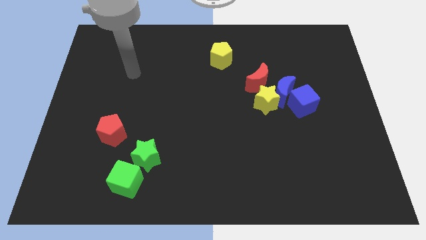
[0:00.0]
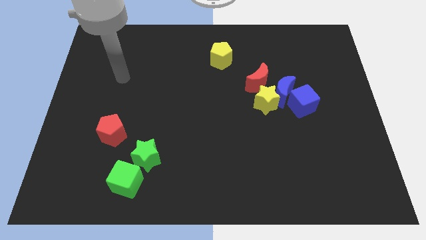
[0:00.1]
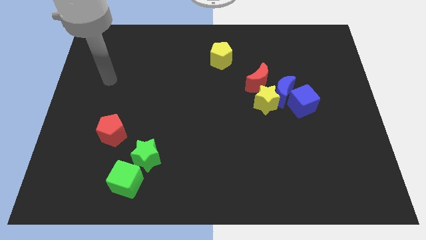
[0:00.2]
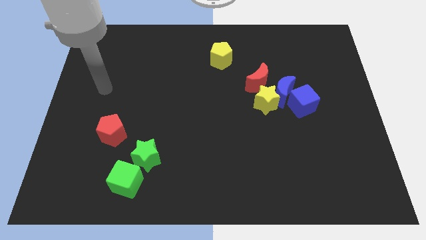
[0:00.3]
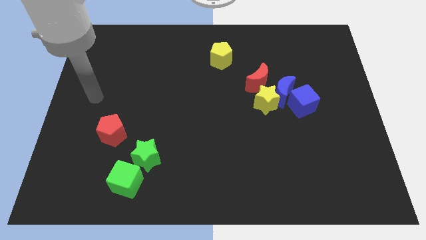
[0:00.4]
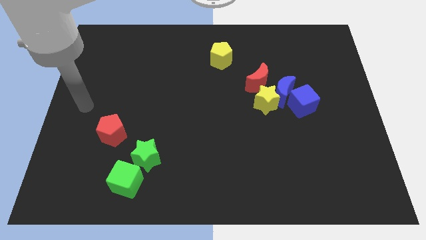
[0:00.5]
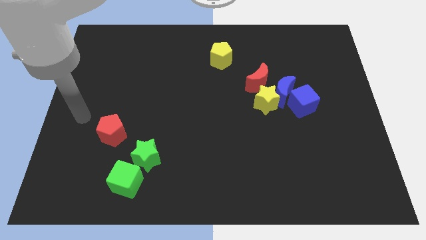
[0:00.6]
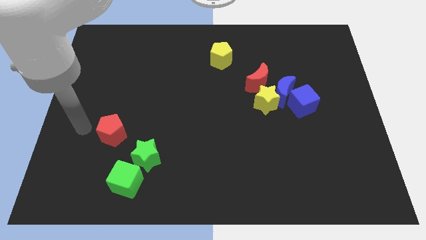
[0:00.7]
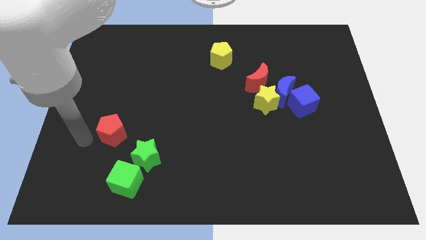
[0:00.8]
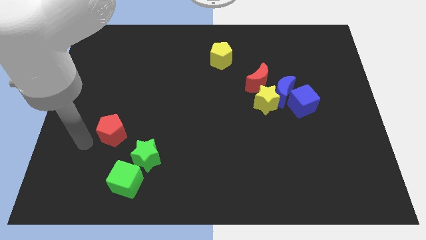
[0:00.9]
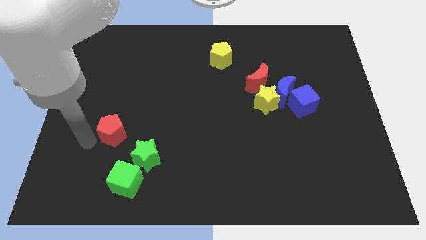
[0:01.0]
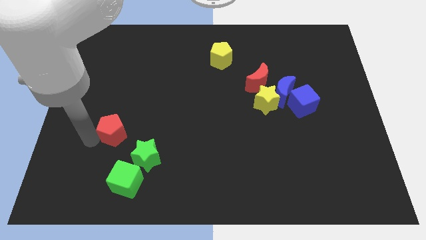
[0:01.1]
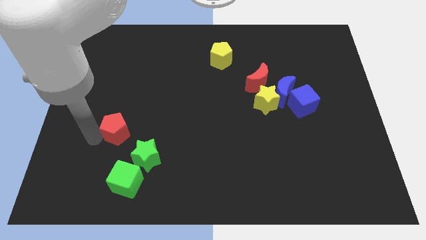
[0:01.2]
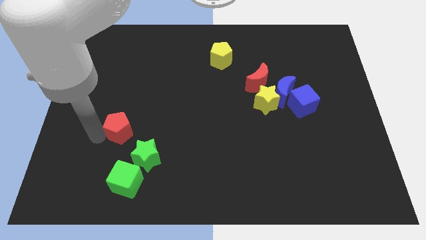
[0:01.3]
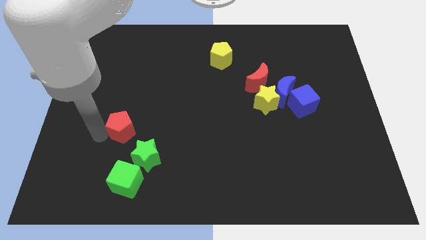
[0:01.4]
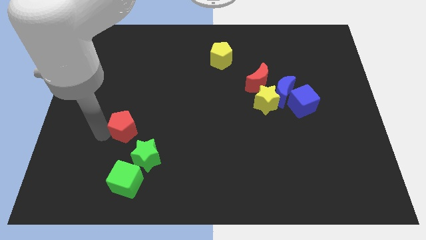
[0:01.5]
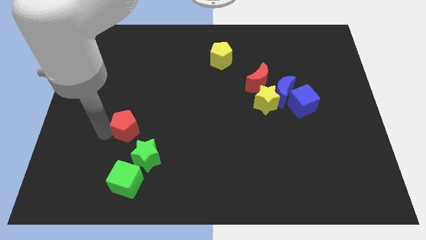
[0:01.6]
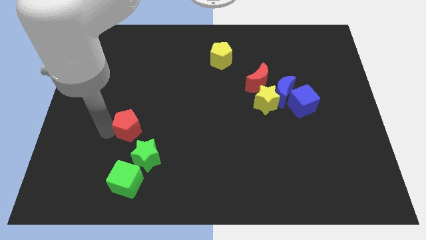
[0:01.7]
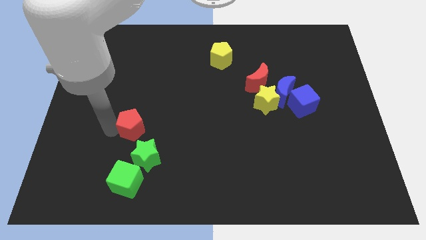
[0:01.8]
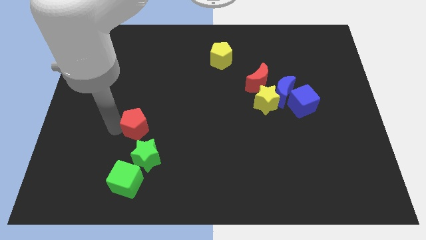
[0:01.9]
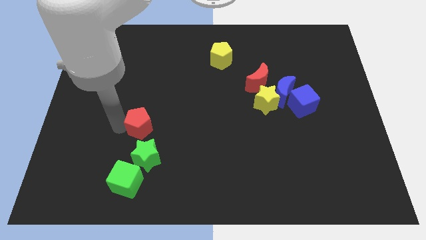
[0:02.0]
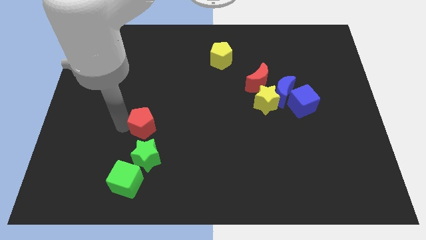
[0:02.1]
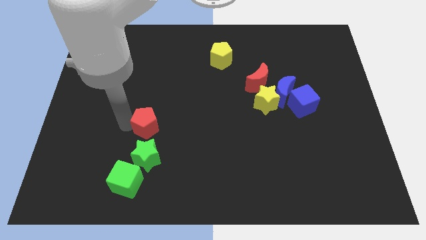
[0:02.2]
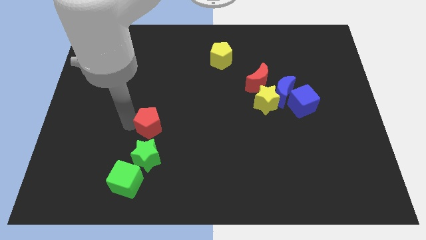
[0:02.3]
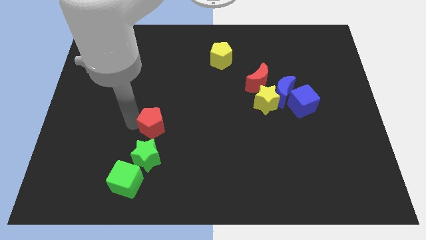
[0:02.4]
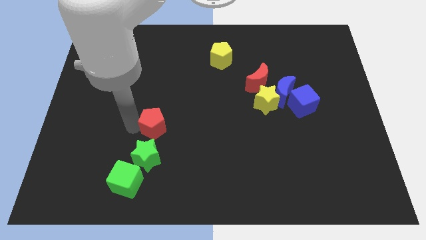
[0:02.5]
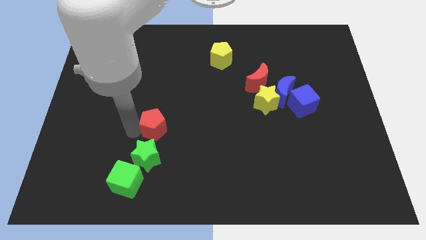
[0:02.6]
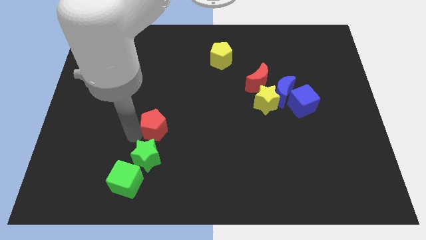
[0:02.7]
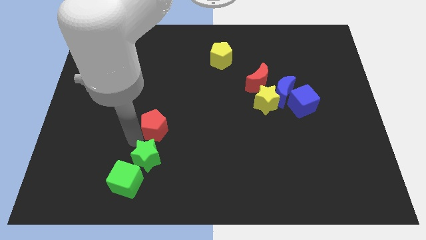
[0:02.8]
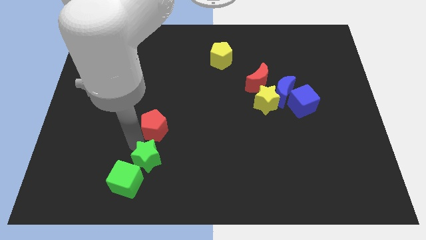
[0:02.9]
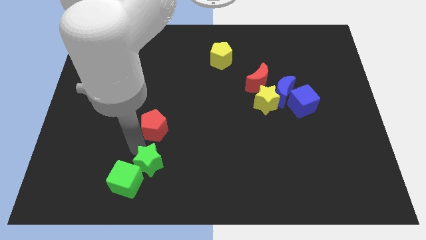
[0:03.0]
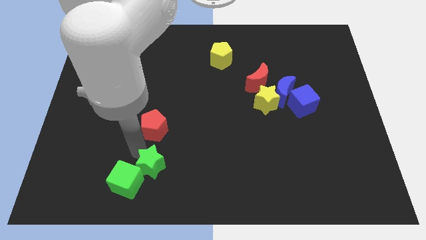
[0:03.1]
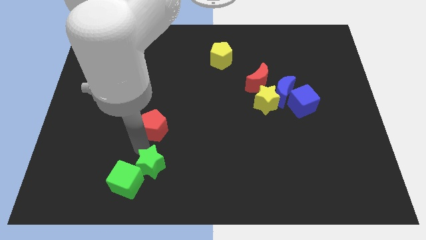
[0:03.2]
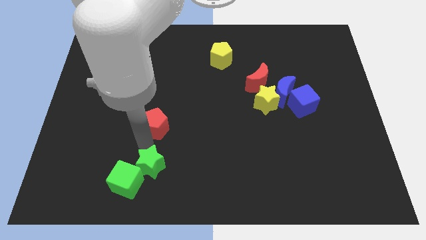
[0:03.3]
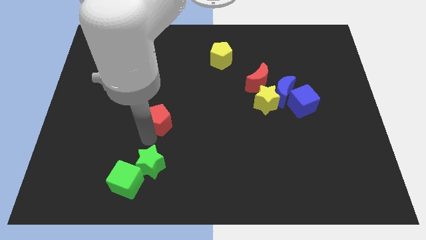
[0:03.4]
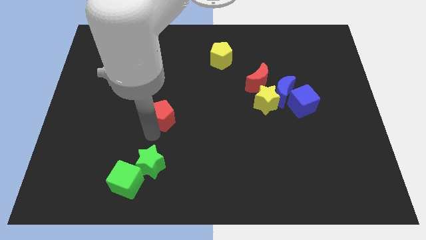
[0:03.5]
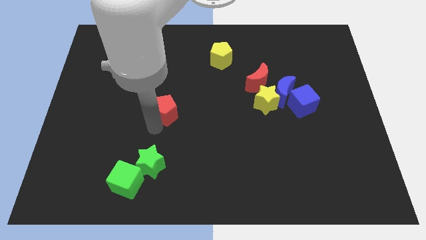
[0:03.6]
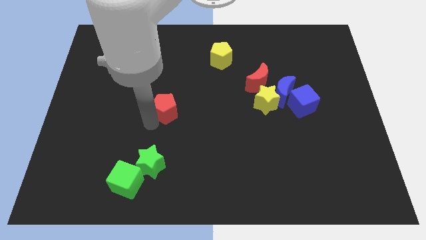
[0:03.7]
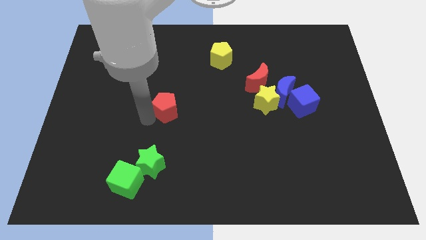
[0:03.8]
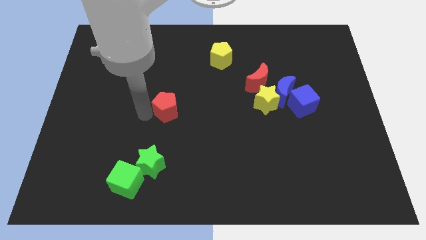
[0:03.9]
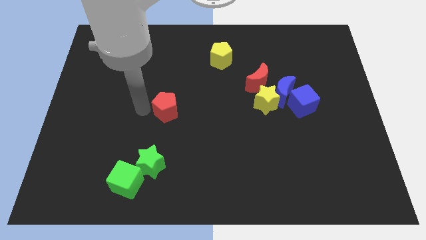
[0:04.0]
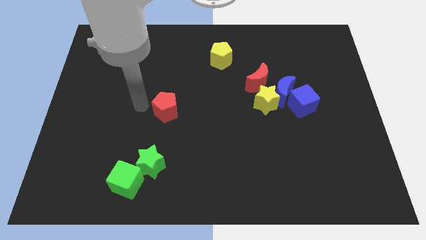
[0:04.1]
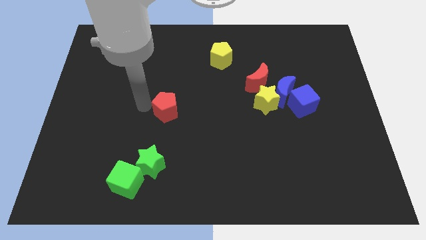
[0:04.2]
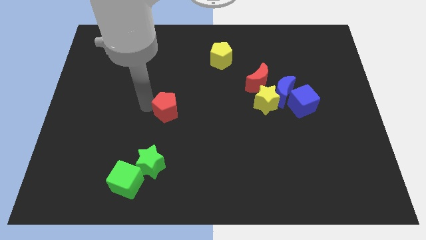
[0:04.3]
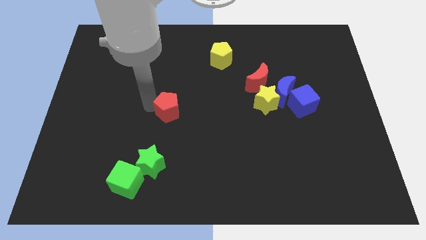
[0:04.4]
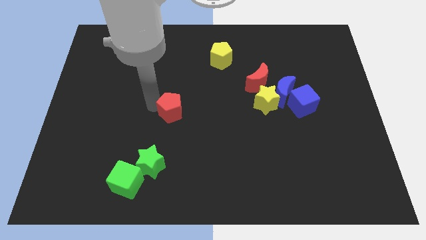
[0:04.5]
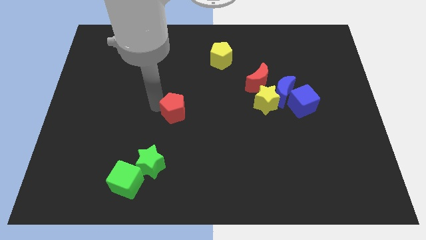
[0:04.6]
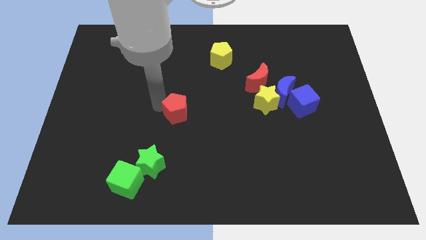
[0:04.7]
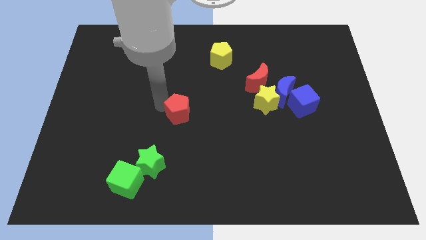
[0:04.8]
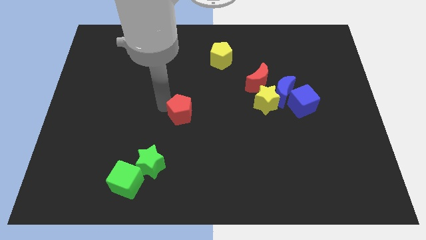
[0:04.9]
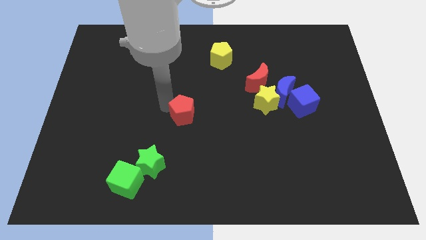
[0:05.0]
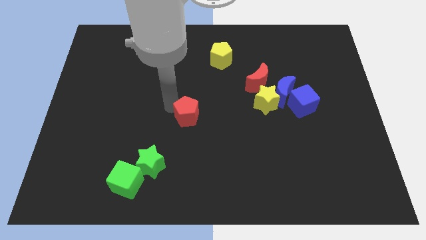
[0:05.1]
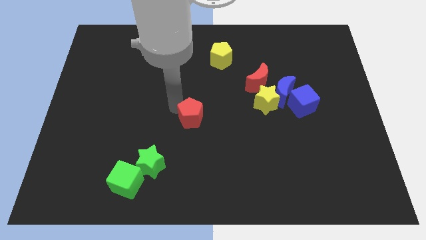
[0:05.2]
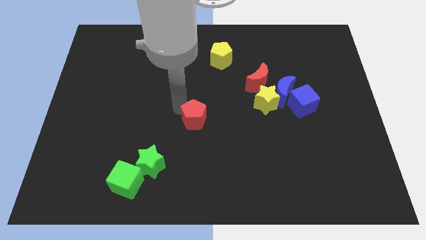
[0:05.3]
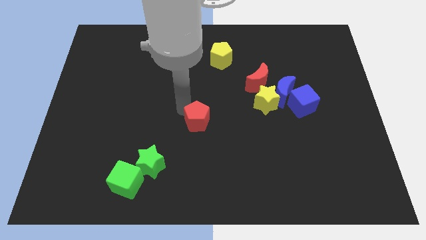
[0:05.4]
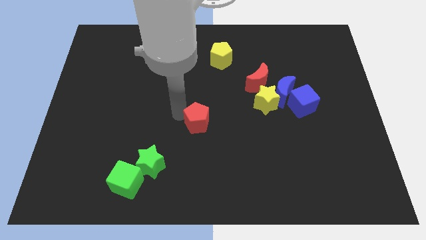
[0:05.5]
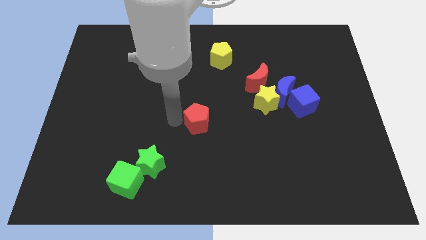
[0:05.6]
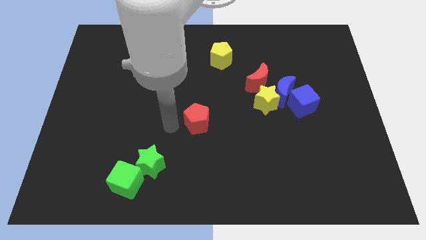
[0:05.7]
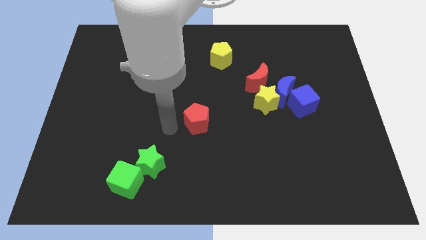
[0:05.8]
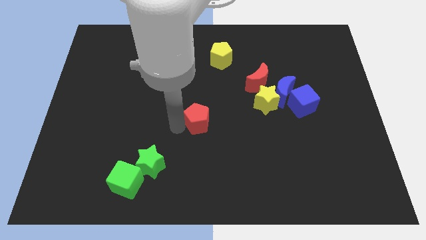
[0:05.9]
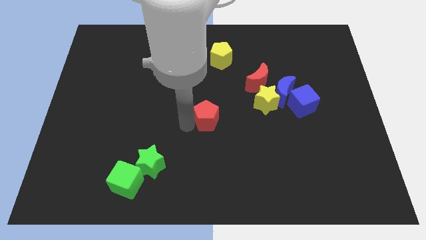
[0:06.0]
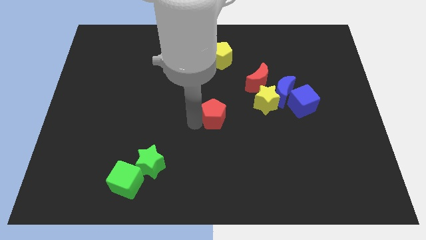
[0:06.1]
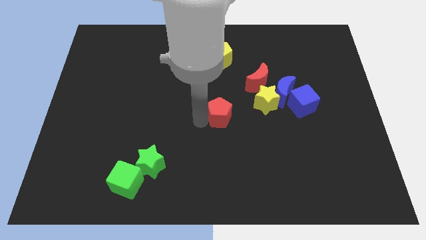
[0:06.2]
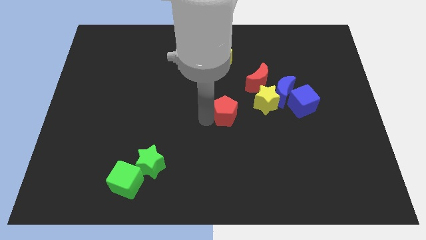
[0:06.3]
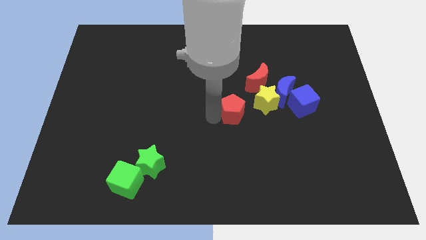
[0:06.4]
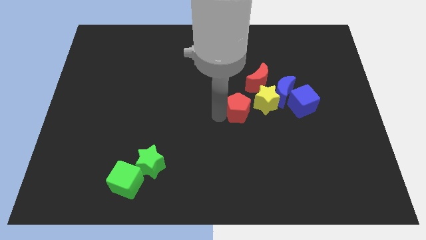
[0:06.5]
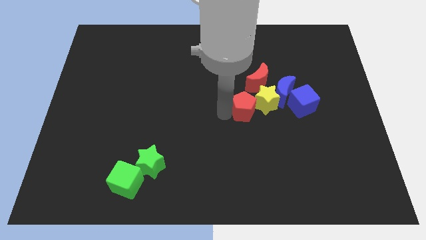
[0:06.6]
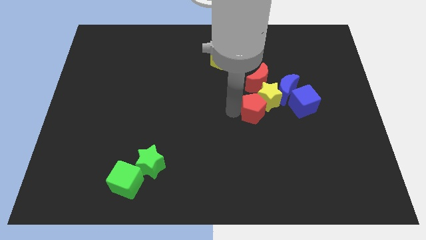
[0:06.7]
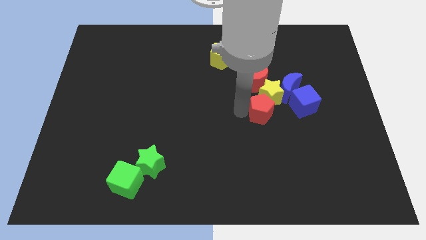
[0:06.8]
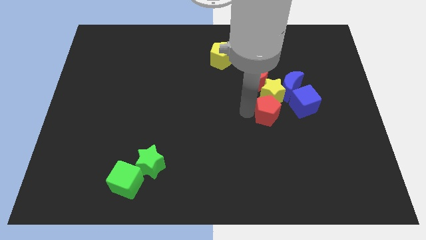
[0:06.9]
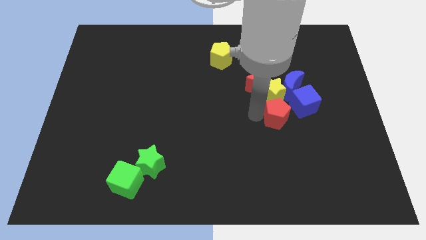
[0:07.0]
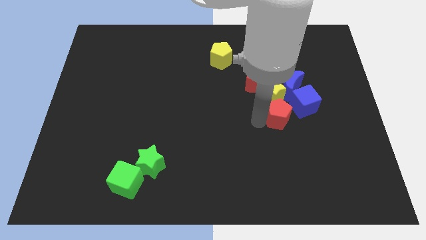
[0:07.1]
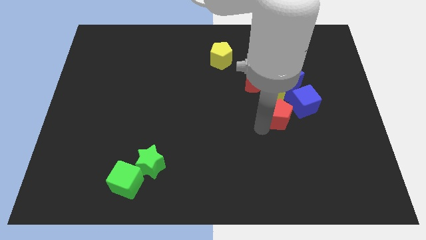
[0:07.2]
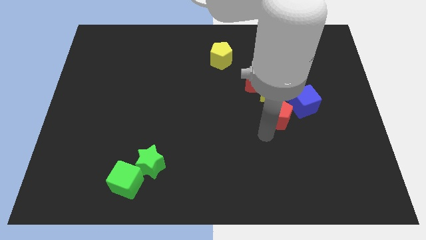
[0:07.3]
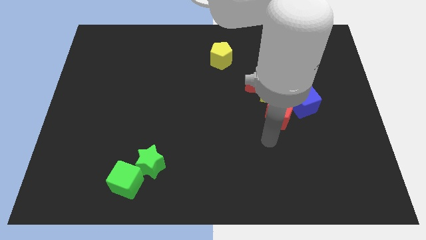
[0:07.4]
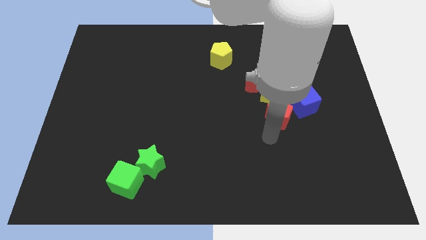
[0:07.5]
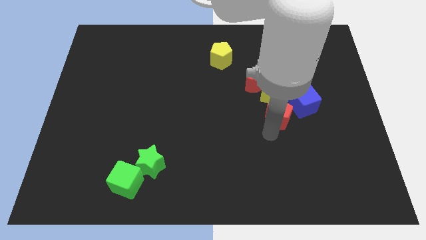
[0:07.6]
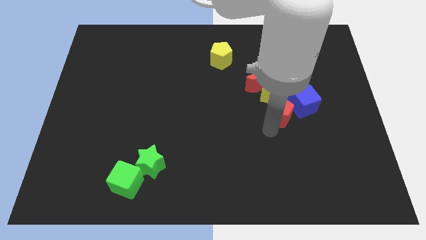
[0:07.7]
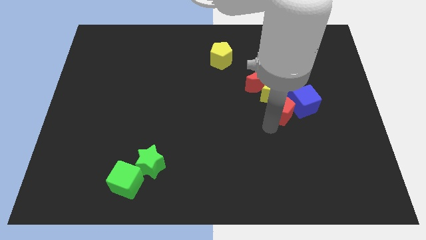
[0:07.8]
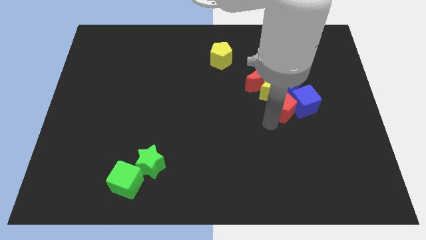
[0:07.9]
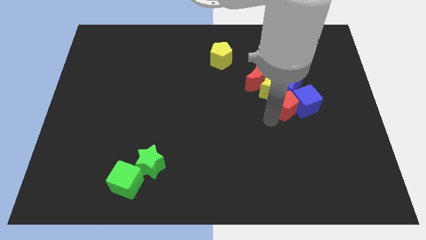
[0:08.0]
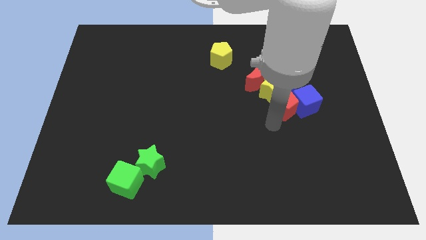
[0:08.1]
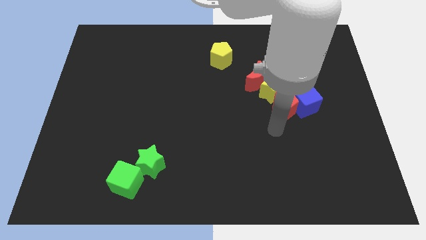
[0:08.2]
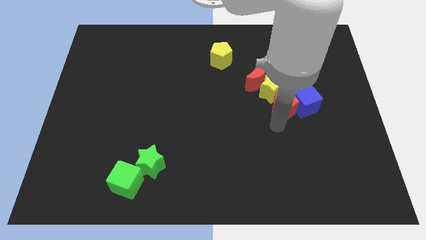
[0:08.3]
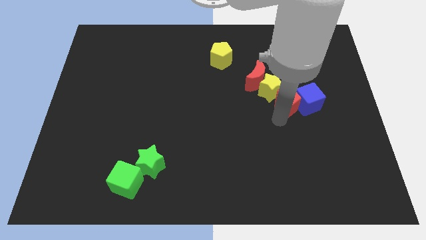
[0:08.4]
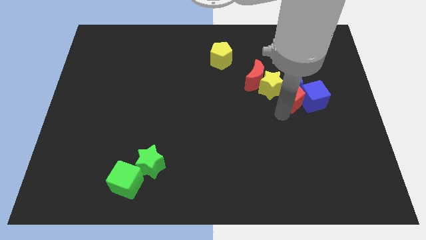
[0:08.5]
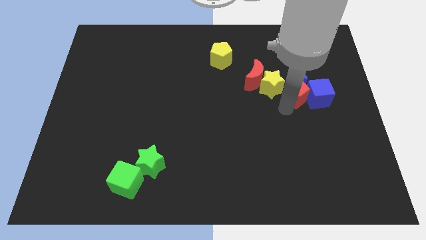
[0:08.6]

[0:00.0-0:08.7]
push the red pentagon to the blue moon
